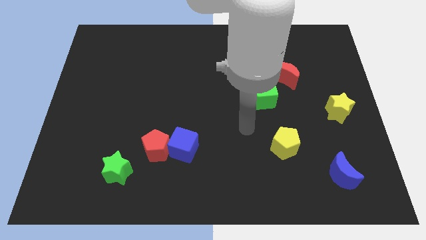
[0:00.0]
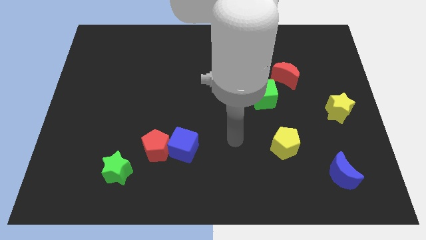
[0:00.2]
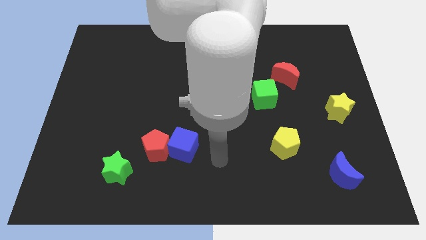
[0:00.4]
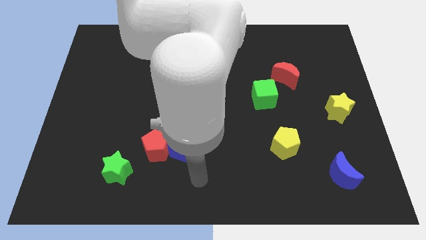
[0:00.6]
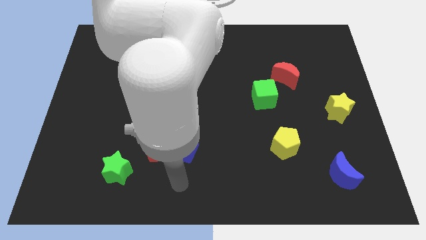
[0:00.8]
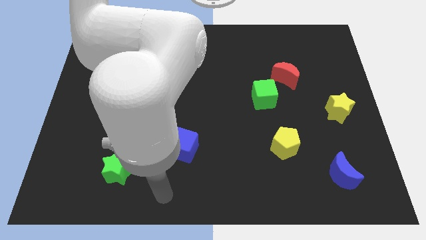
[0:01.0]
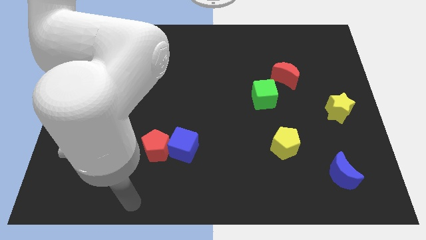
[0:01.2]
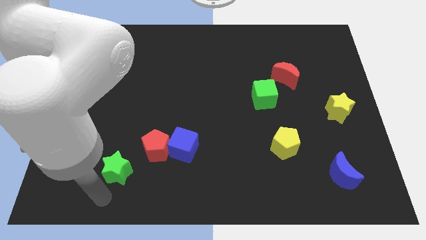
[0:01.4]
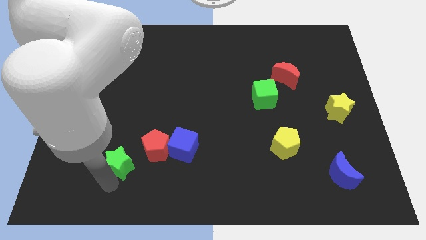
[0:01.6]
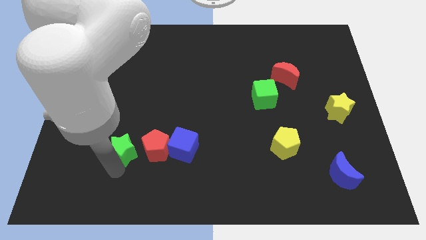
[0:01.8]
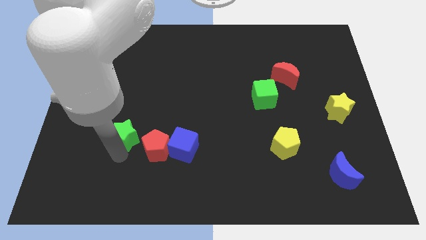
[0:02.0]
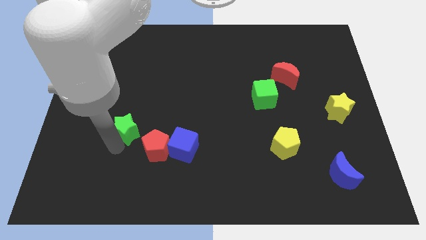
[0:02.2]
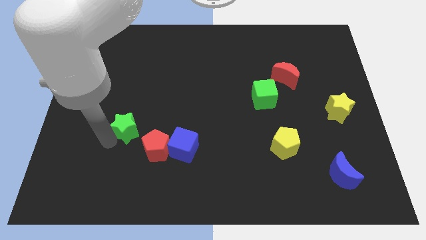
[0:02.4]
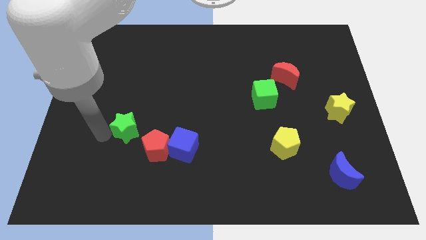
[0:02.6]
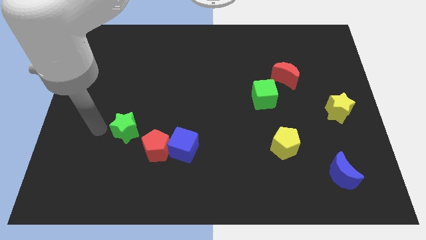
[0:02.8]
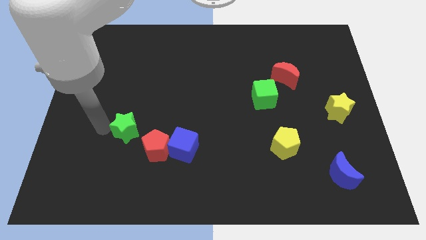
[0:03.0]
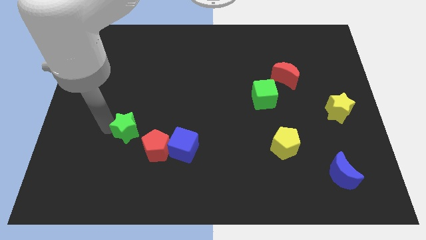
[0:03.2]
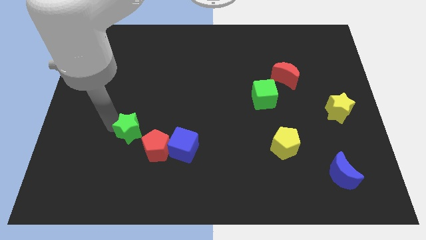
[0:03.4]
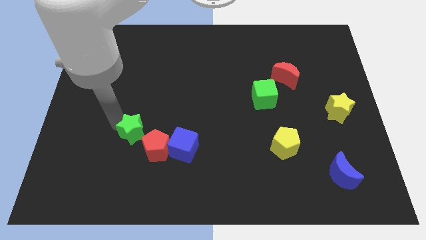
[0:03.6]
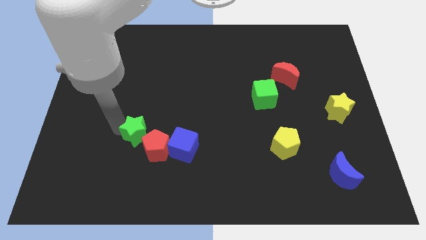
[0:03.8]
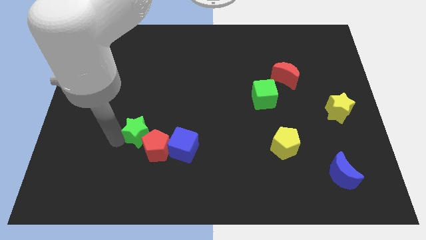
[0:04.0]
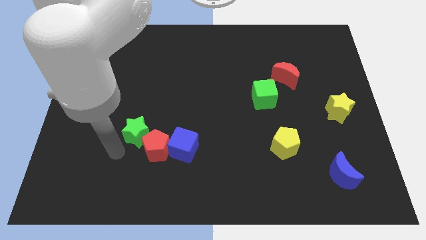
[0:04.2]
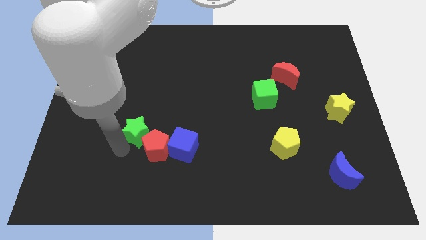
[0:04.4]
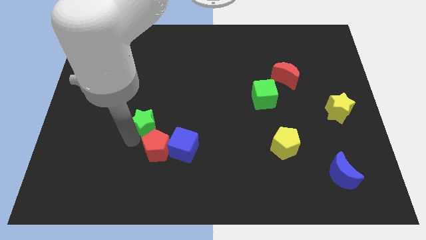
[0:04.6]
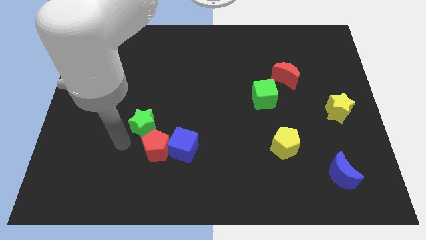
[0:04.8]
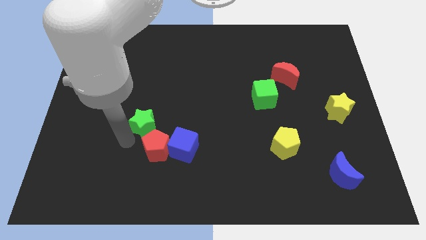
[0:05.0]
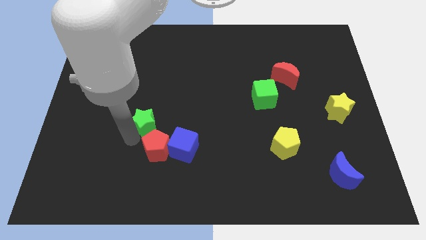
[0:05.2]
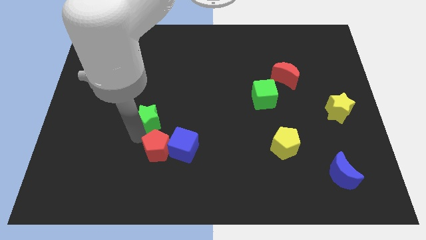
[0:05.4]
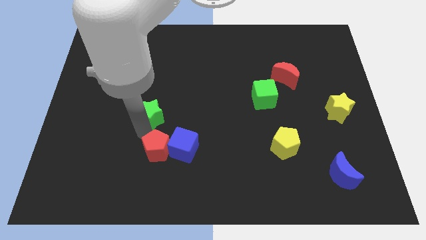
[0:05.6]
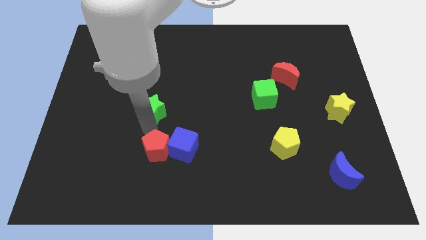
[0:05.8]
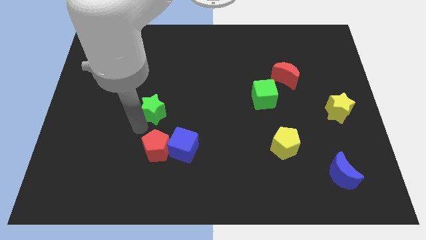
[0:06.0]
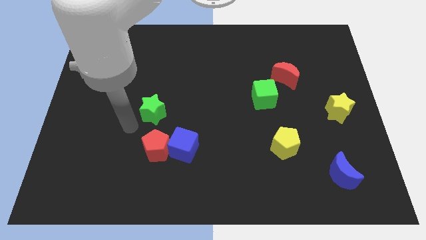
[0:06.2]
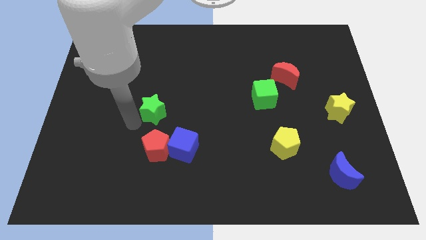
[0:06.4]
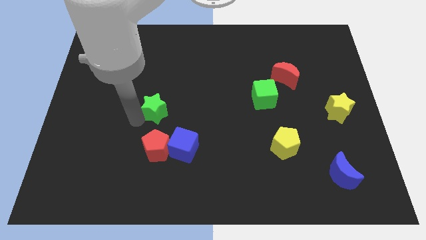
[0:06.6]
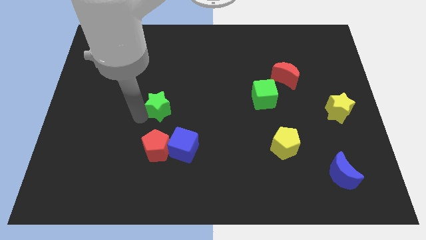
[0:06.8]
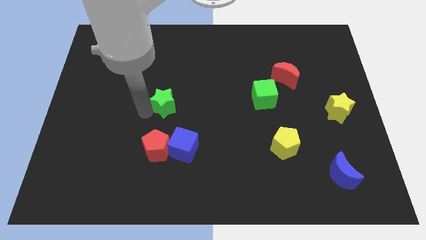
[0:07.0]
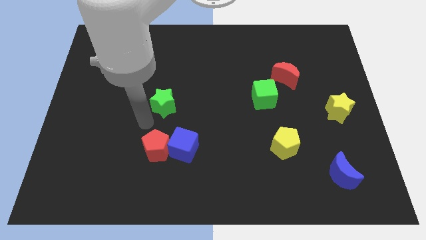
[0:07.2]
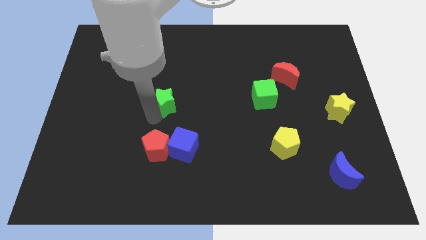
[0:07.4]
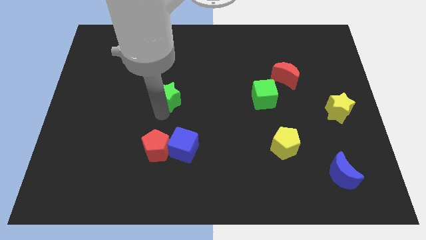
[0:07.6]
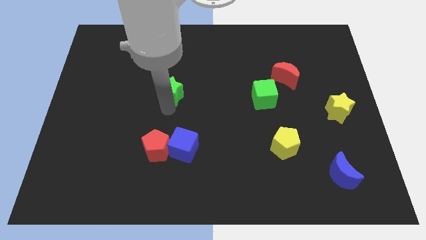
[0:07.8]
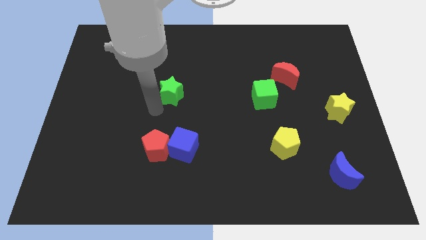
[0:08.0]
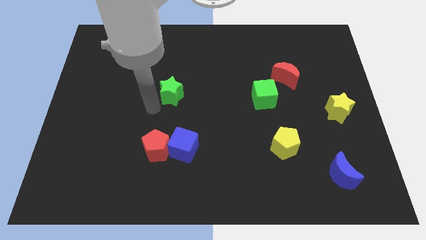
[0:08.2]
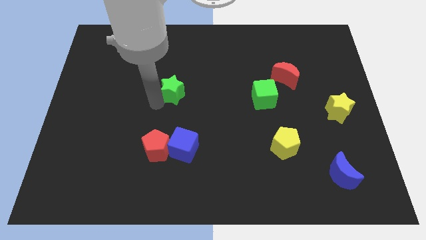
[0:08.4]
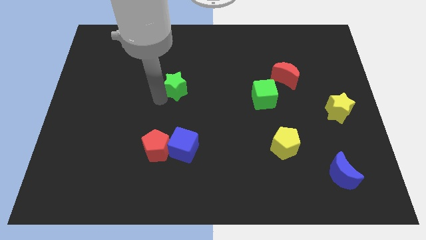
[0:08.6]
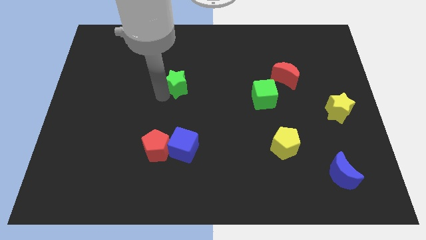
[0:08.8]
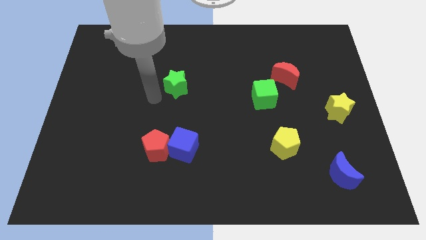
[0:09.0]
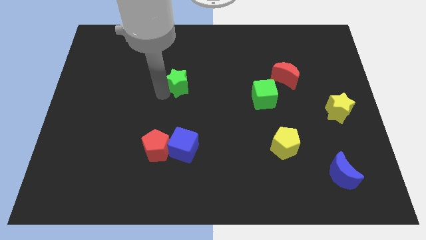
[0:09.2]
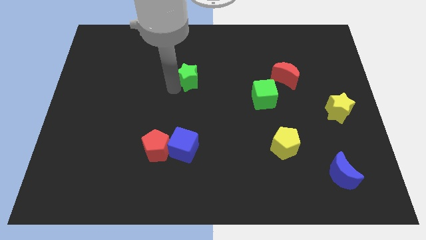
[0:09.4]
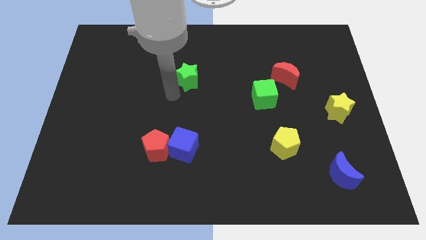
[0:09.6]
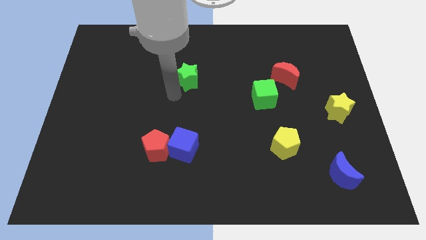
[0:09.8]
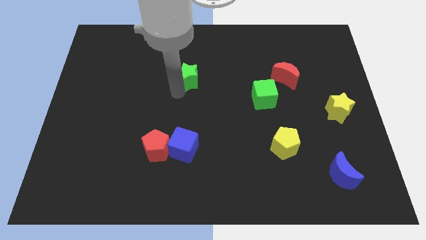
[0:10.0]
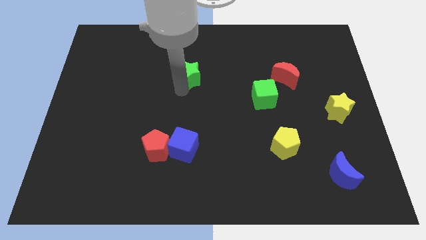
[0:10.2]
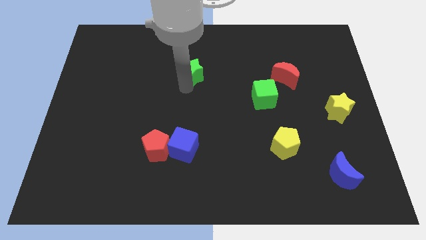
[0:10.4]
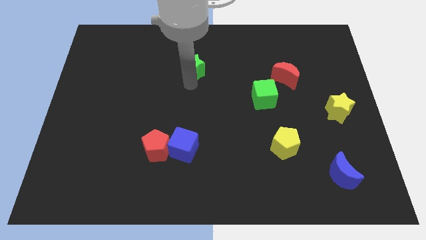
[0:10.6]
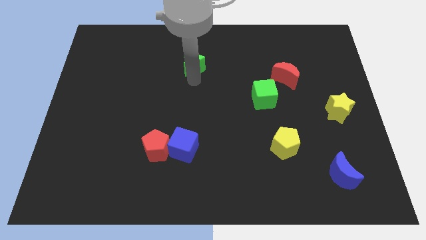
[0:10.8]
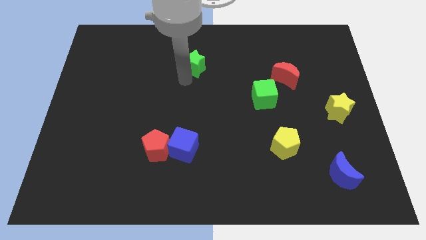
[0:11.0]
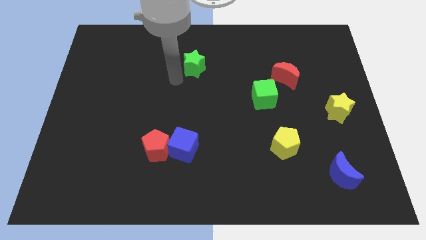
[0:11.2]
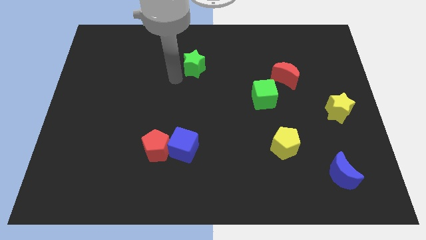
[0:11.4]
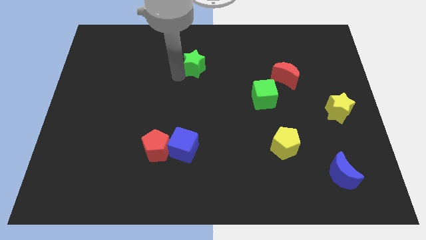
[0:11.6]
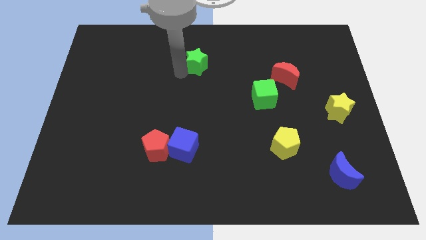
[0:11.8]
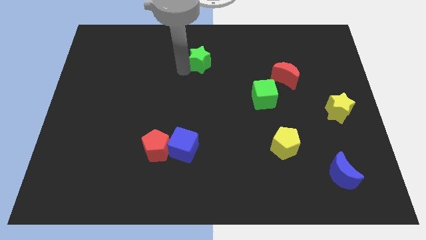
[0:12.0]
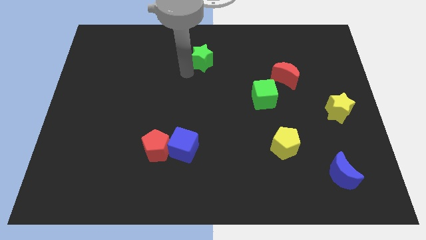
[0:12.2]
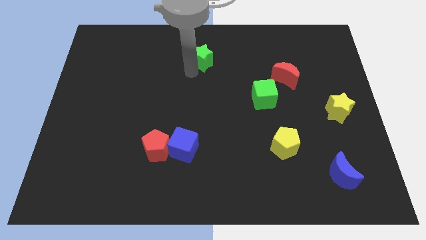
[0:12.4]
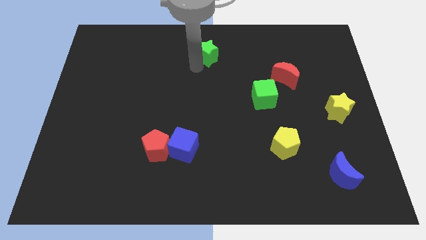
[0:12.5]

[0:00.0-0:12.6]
put the green star to the top

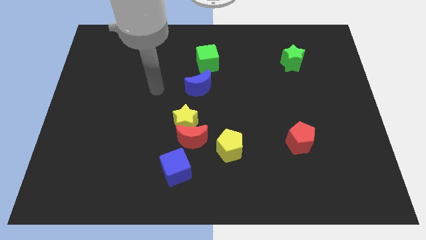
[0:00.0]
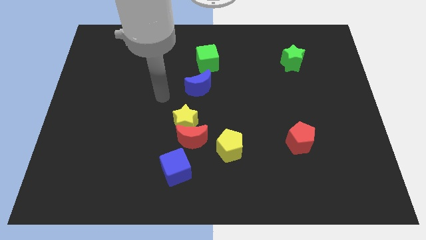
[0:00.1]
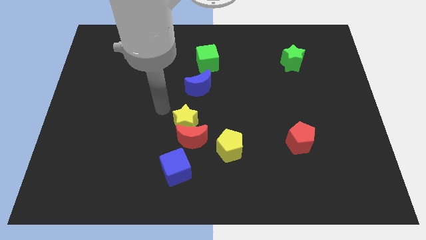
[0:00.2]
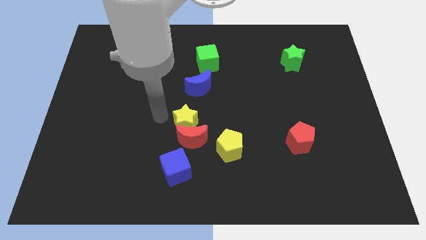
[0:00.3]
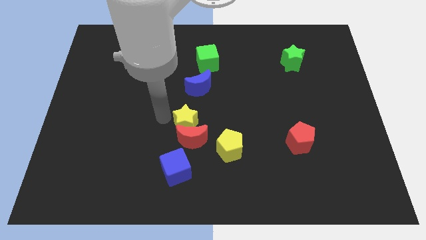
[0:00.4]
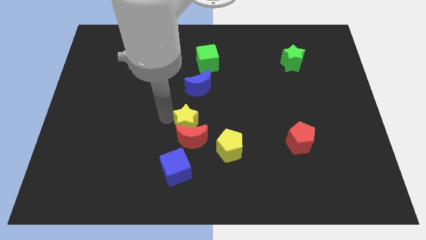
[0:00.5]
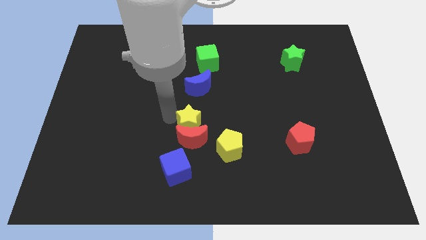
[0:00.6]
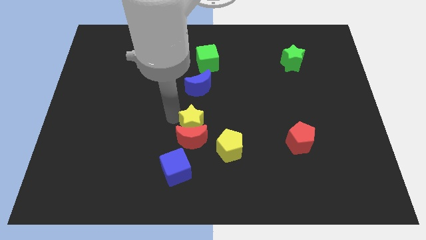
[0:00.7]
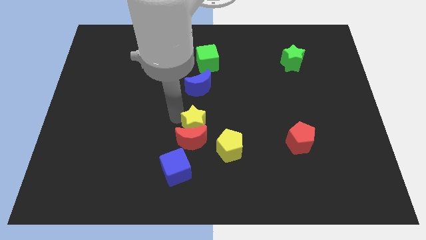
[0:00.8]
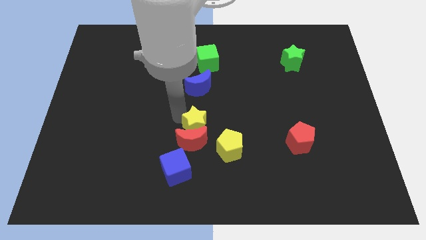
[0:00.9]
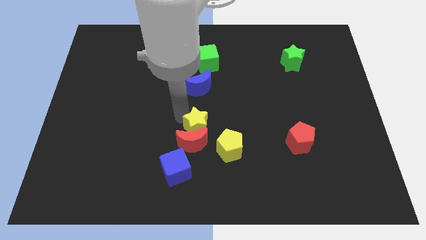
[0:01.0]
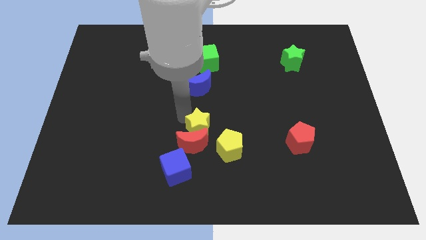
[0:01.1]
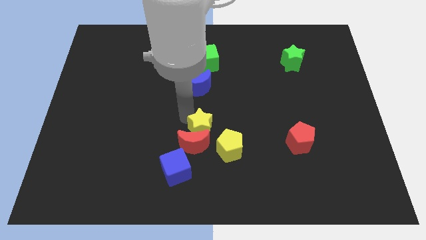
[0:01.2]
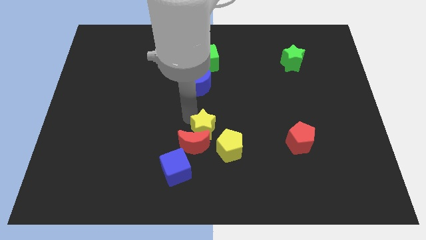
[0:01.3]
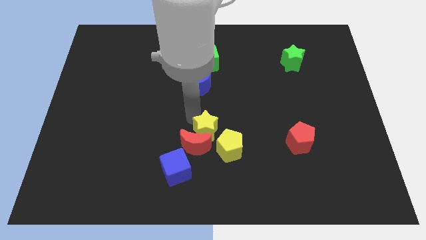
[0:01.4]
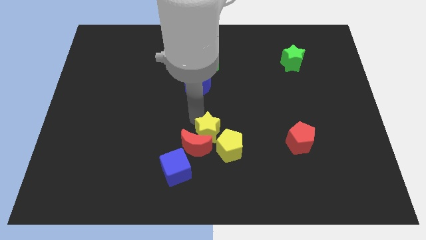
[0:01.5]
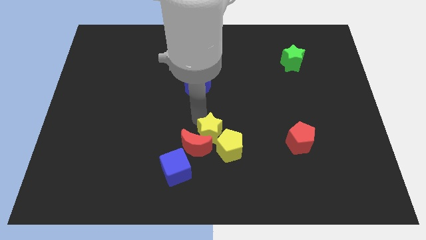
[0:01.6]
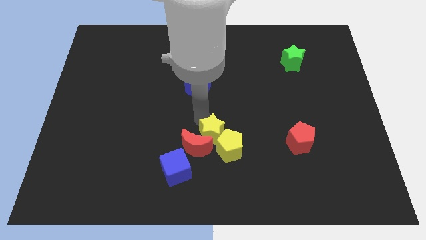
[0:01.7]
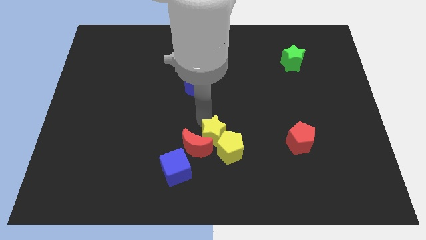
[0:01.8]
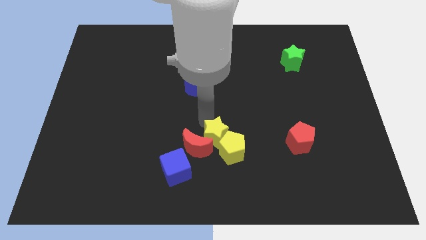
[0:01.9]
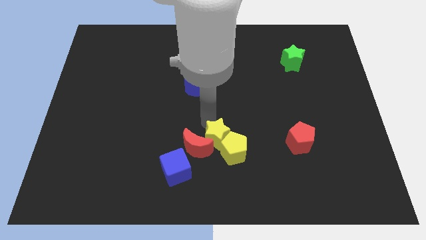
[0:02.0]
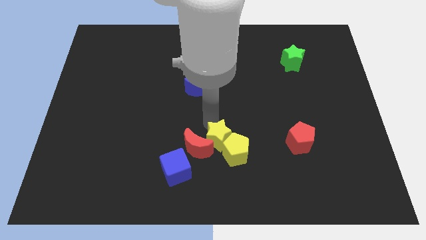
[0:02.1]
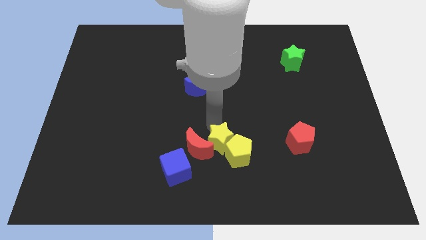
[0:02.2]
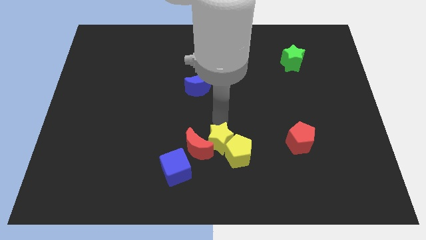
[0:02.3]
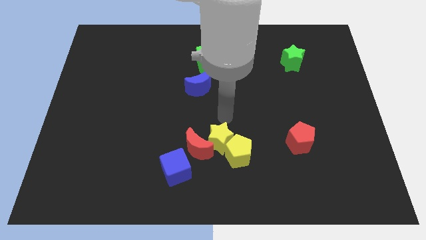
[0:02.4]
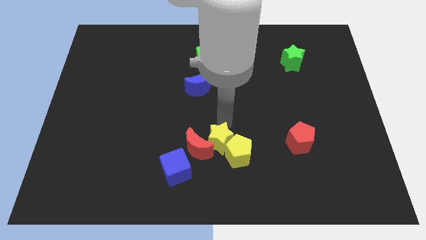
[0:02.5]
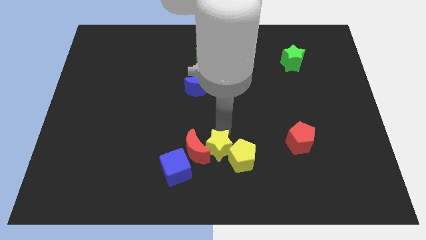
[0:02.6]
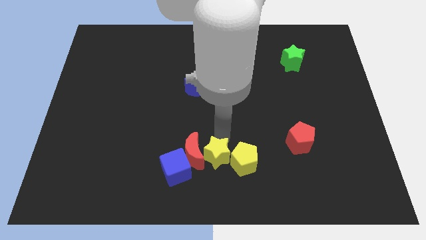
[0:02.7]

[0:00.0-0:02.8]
move the yellow star to the bottom side
